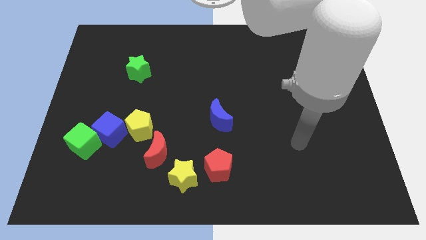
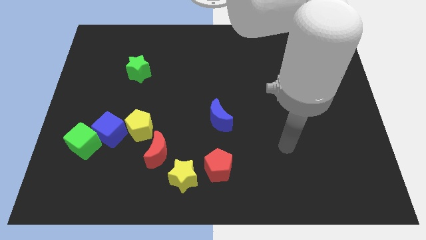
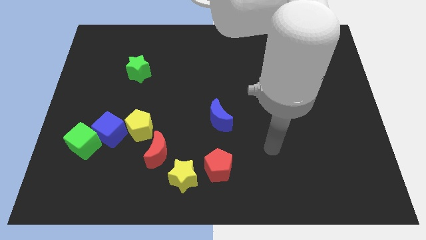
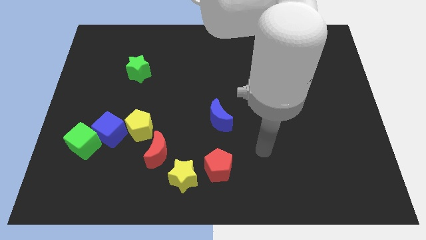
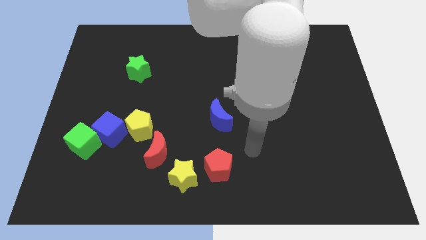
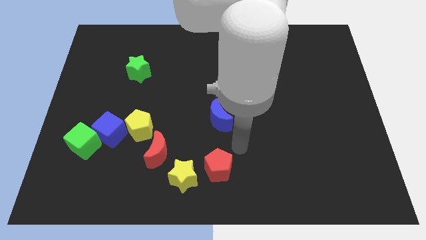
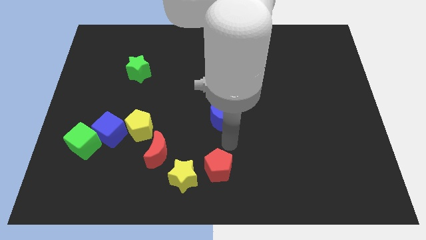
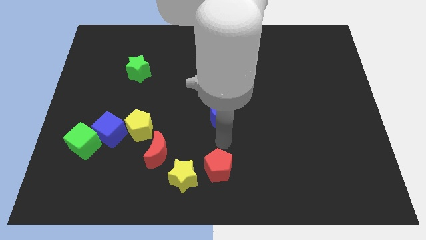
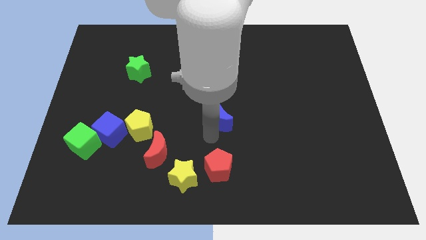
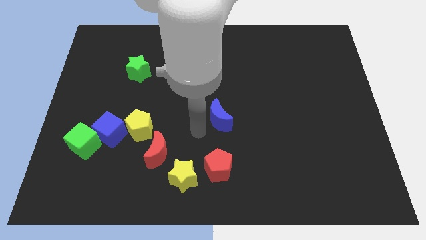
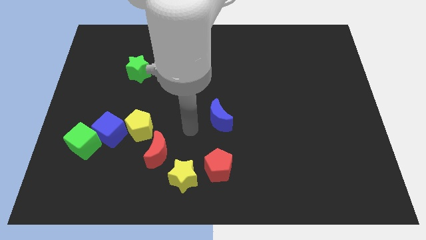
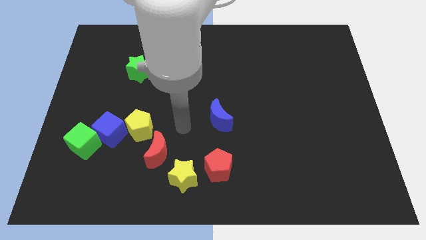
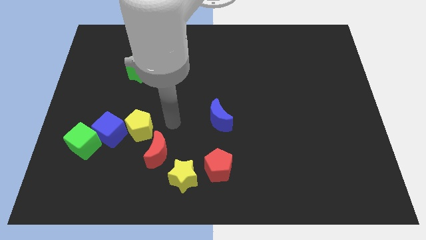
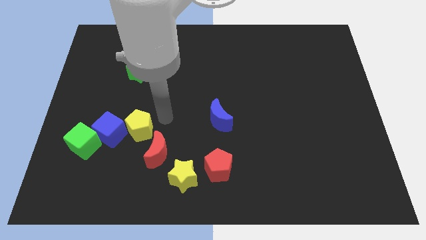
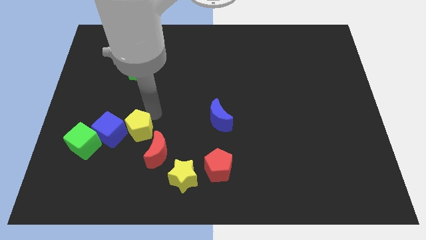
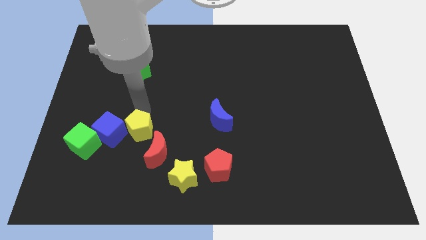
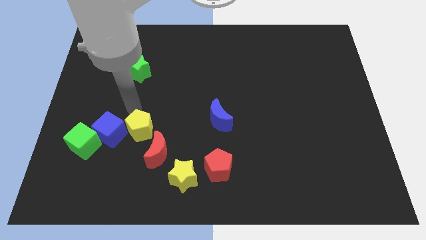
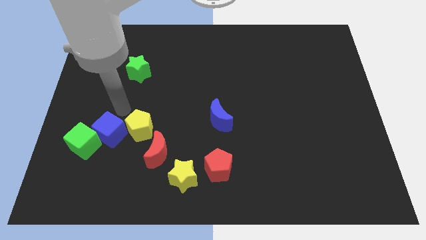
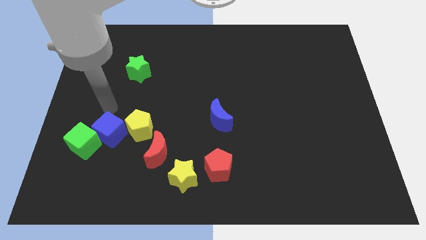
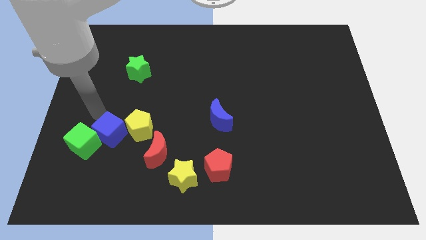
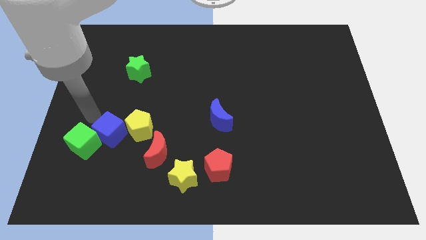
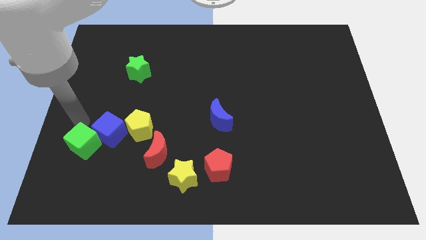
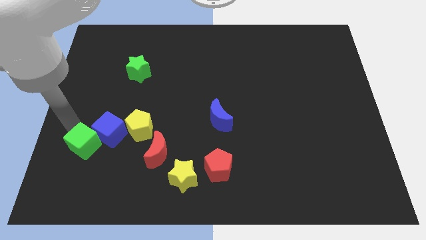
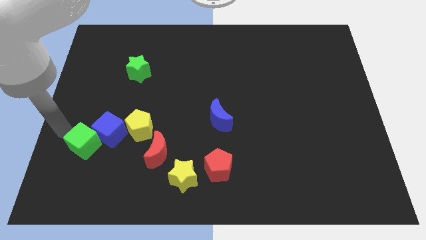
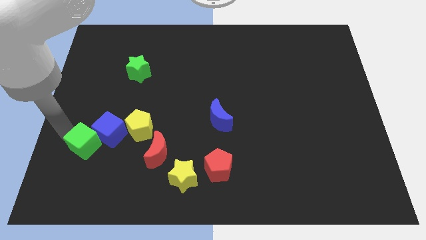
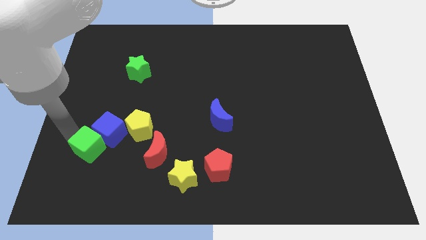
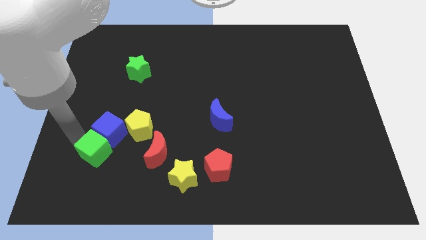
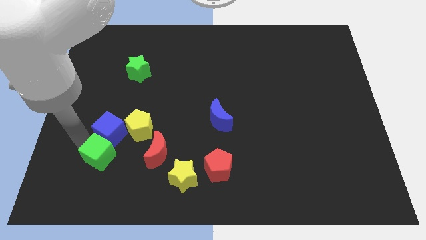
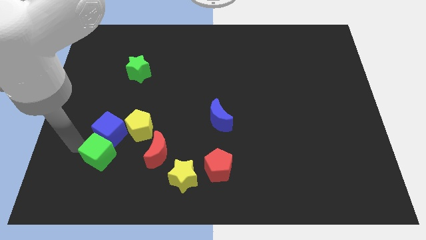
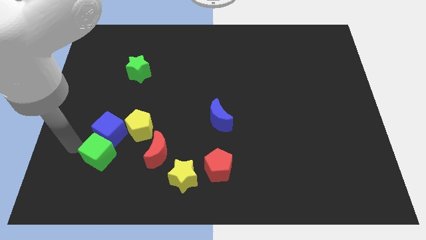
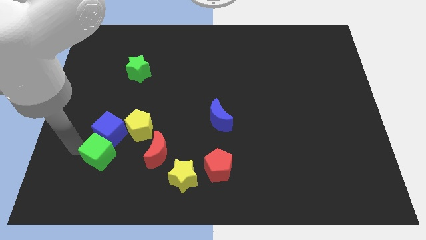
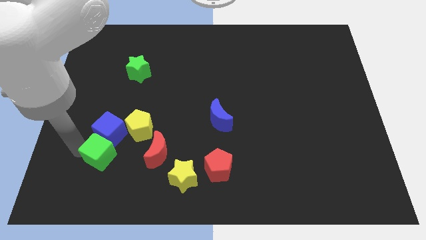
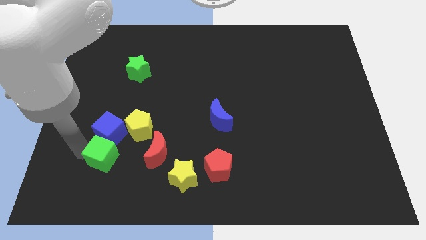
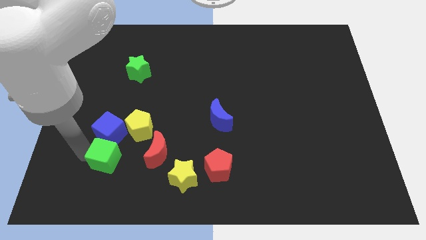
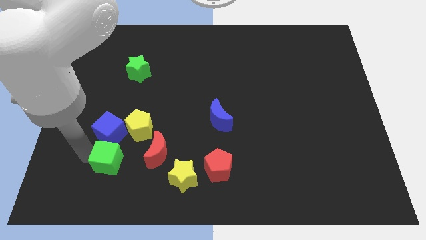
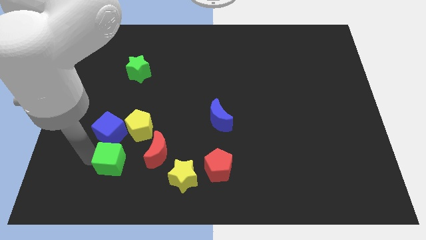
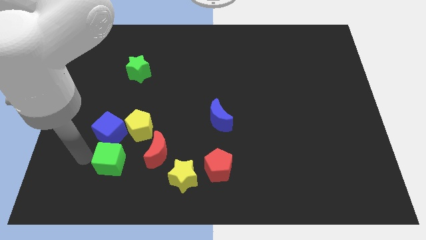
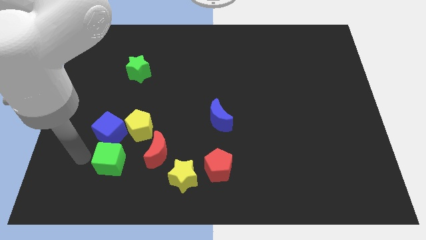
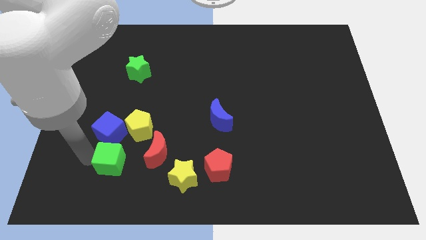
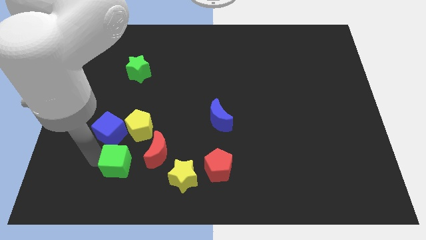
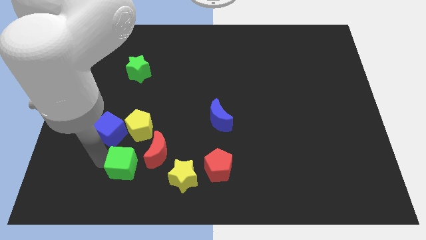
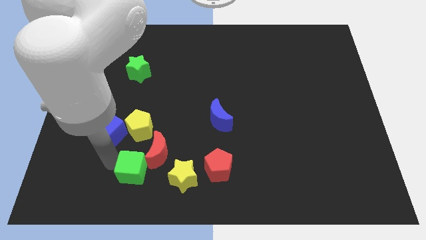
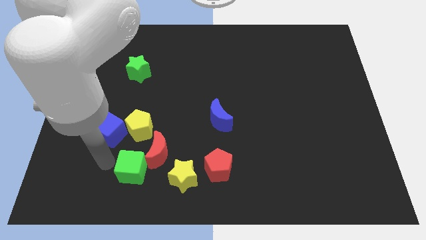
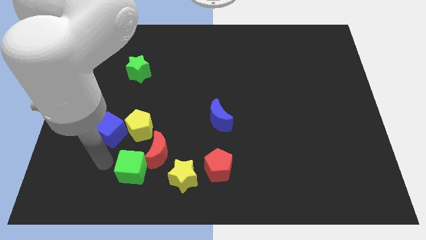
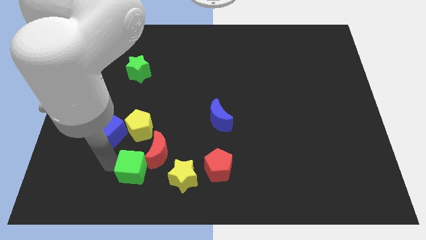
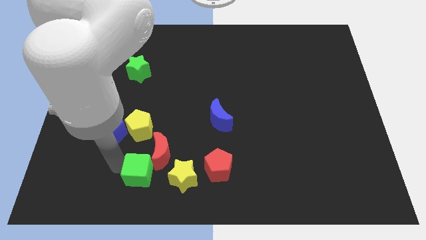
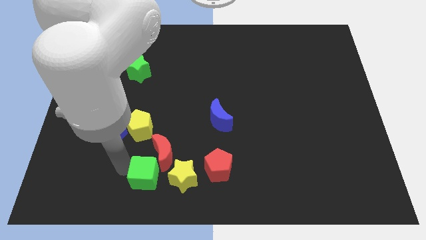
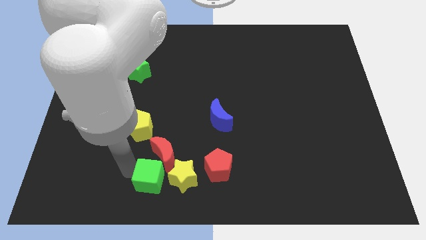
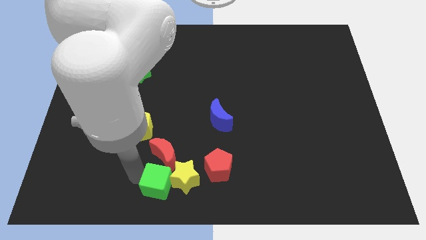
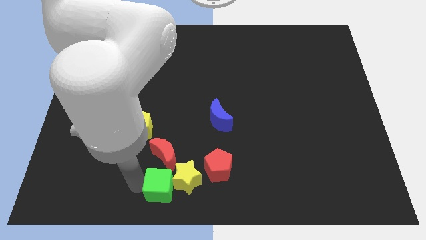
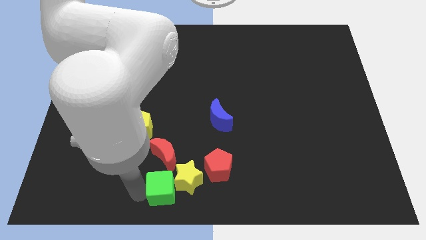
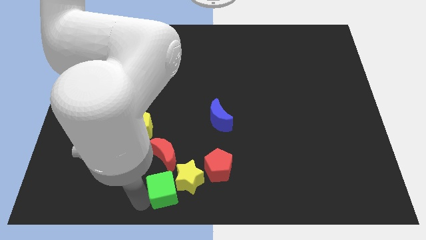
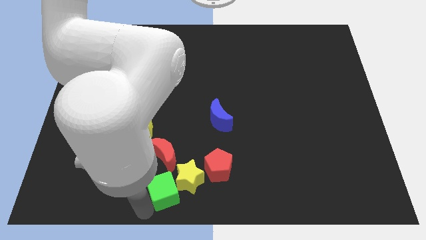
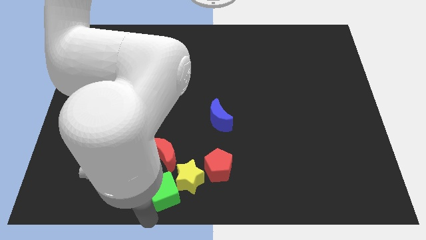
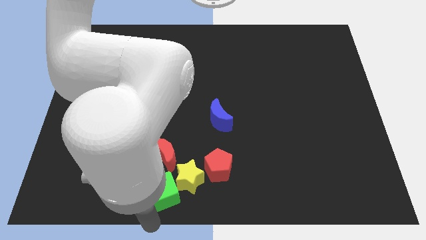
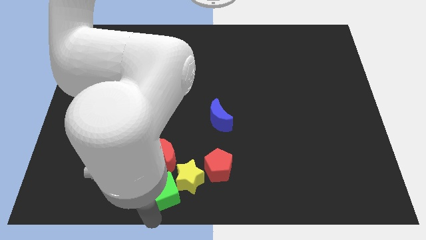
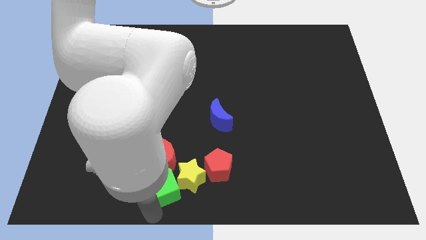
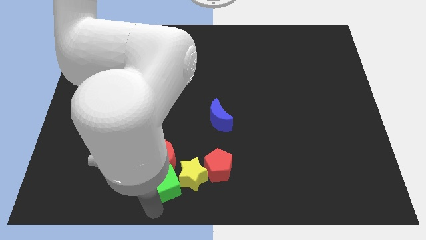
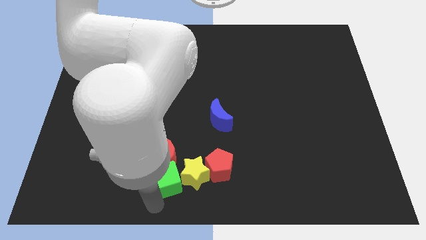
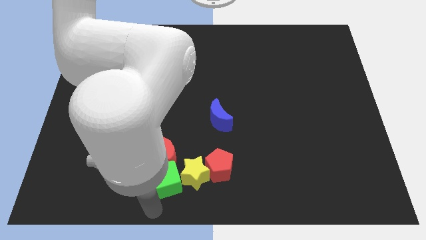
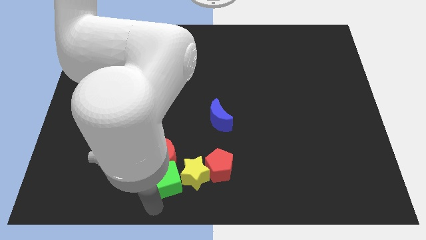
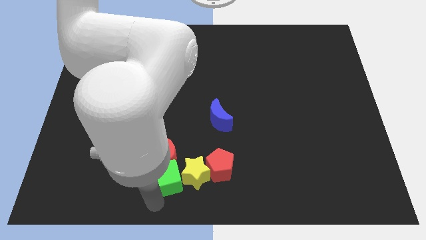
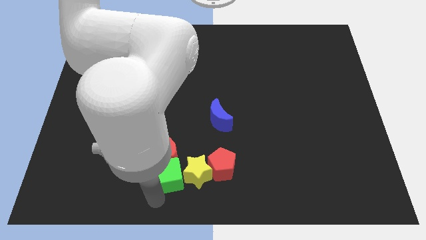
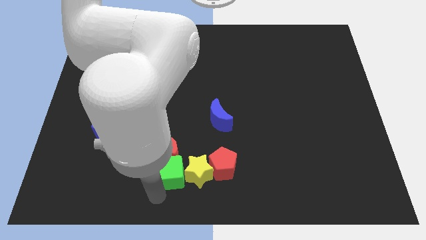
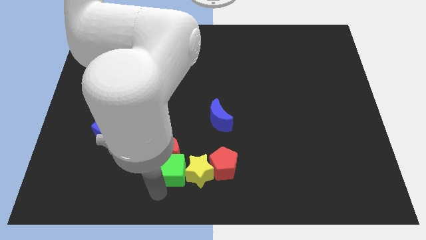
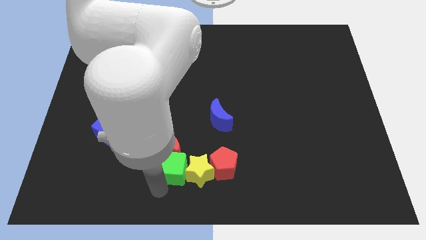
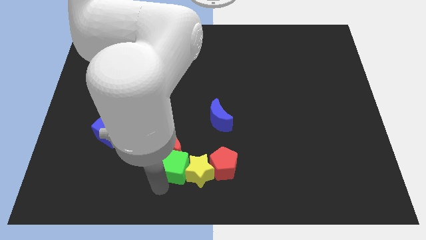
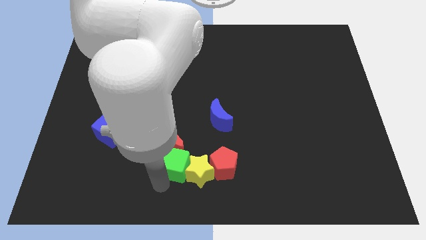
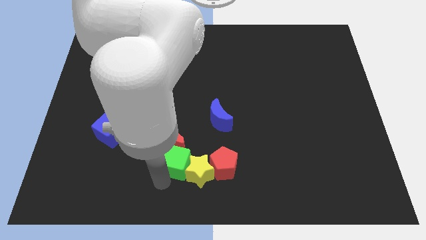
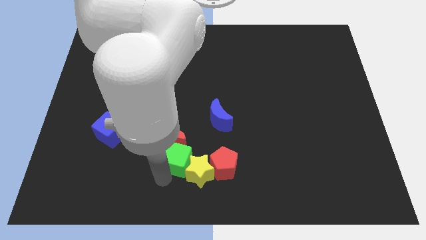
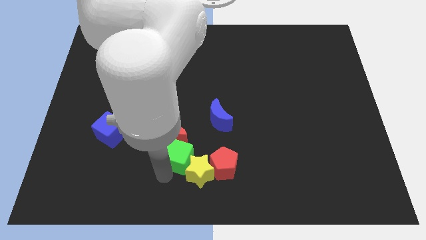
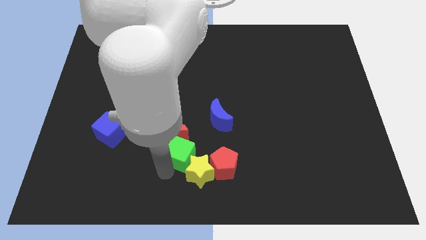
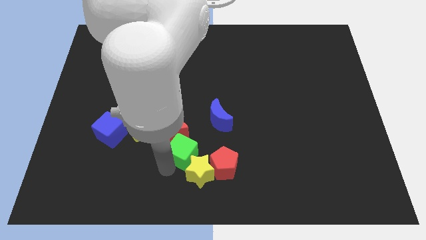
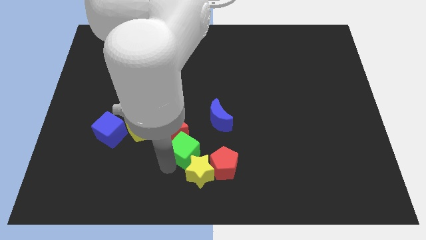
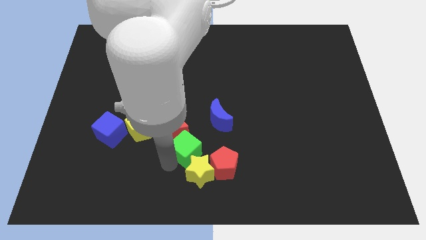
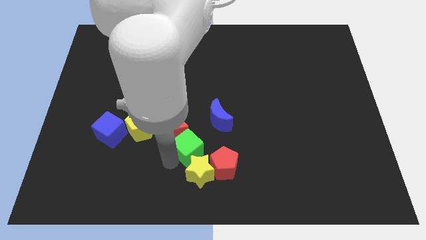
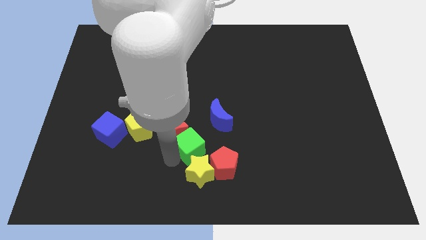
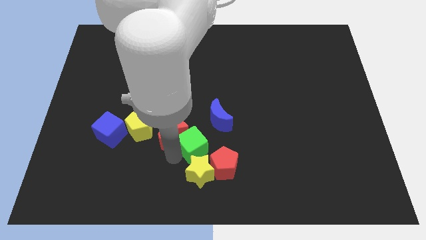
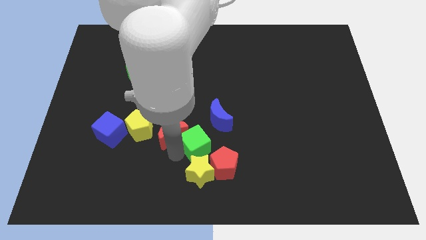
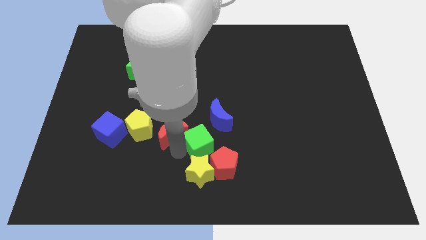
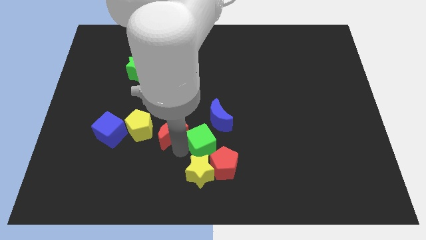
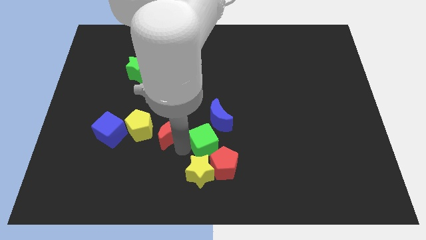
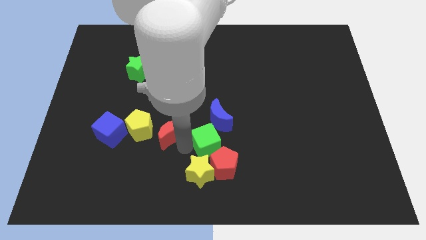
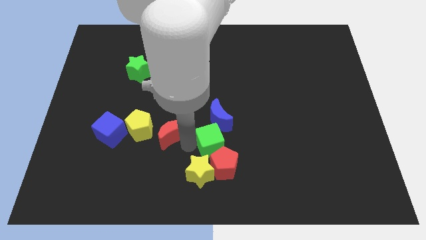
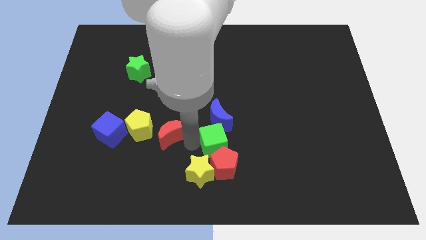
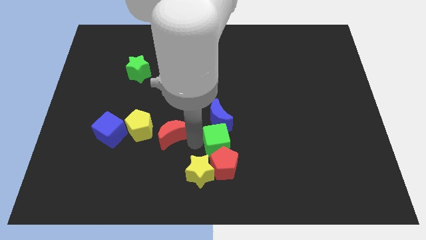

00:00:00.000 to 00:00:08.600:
put the green cube to the bottom right of the blue moon
